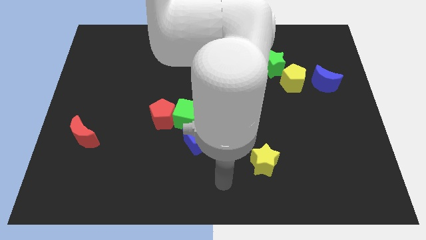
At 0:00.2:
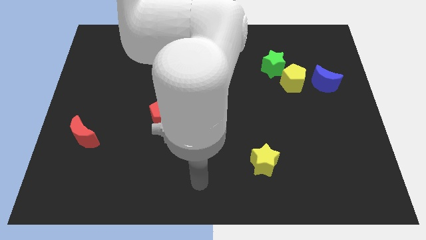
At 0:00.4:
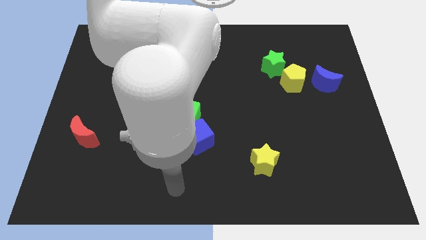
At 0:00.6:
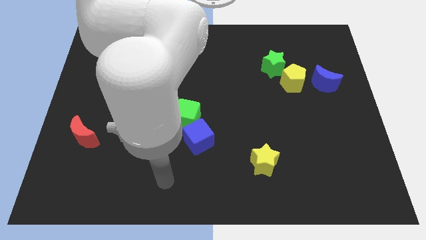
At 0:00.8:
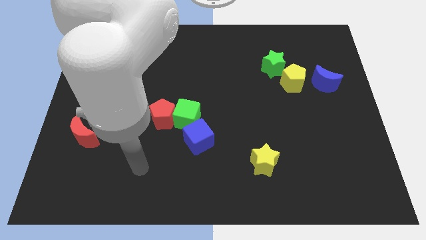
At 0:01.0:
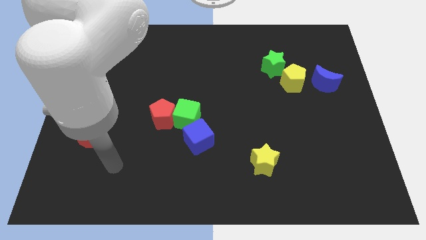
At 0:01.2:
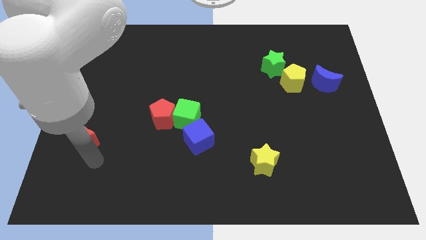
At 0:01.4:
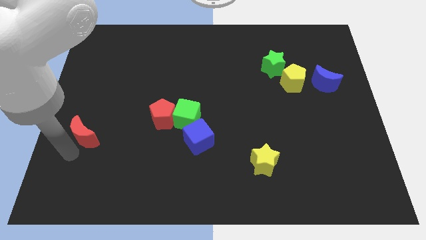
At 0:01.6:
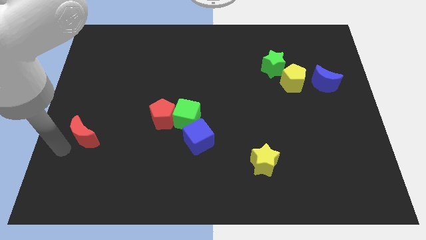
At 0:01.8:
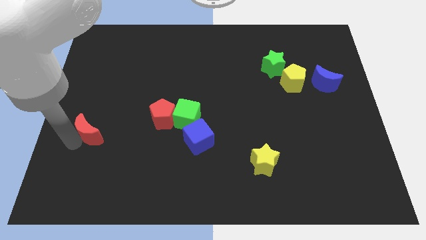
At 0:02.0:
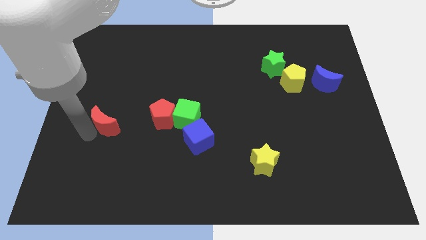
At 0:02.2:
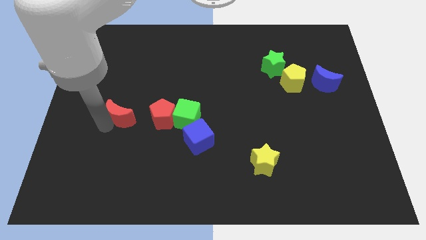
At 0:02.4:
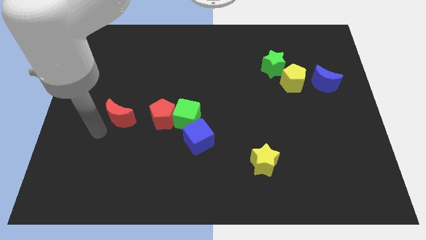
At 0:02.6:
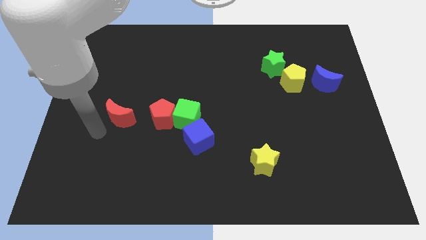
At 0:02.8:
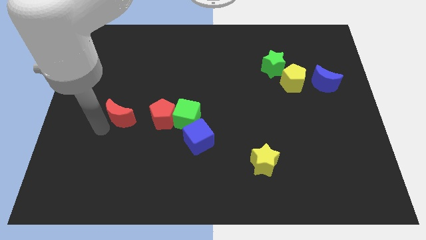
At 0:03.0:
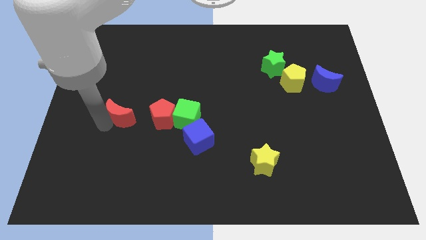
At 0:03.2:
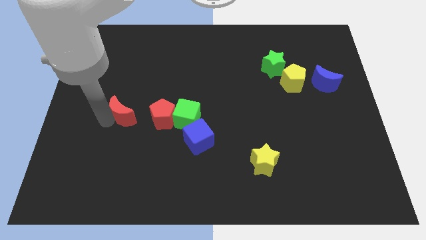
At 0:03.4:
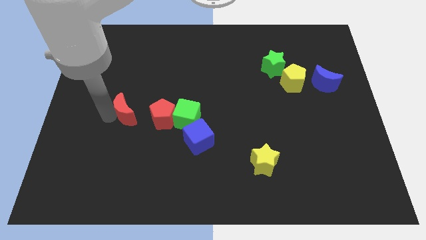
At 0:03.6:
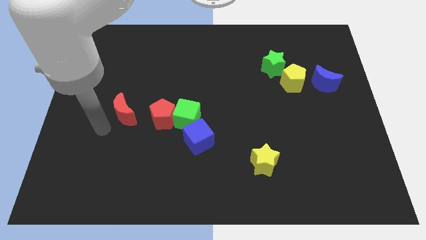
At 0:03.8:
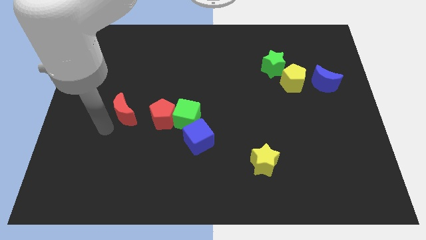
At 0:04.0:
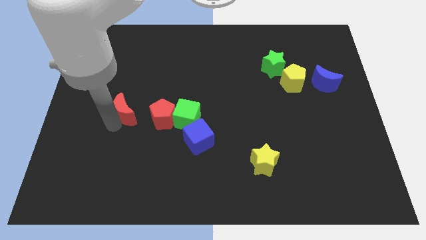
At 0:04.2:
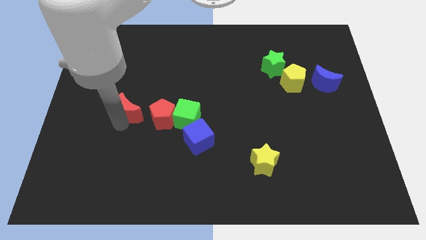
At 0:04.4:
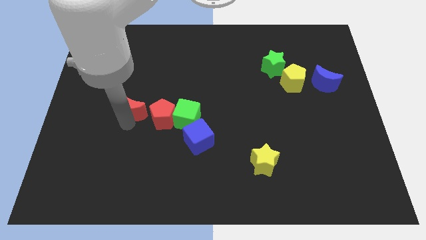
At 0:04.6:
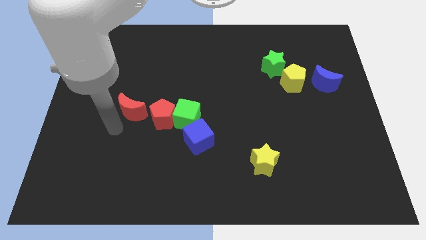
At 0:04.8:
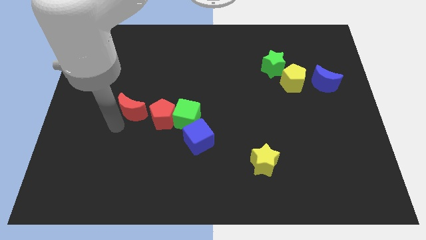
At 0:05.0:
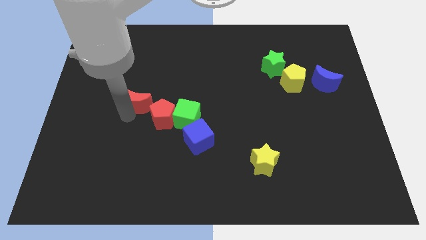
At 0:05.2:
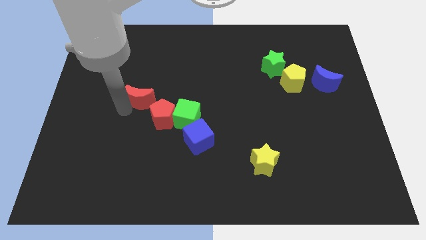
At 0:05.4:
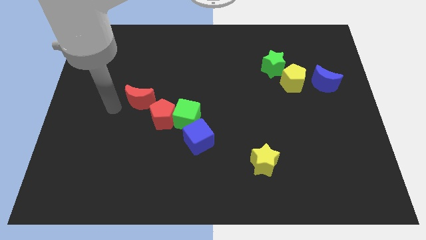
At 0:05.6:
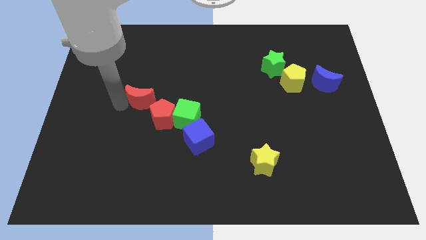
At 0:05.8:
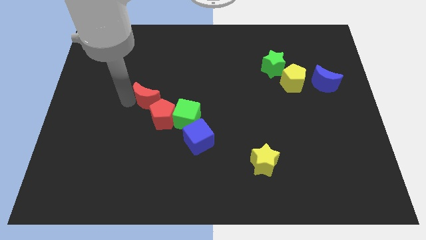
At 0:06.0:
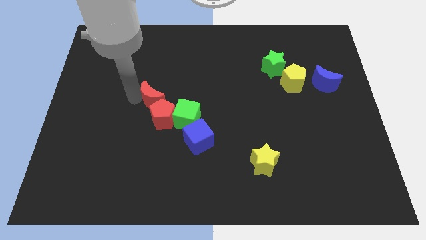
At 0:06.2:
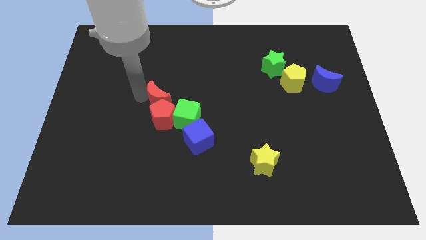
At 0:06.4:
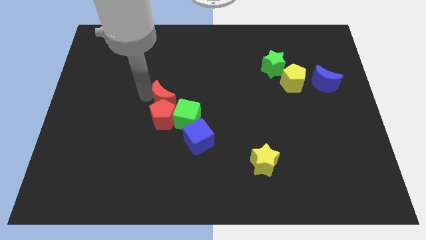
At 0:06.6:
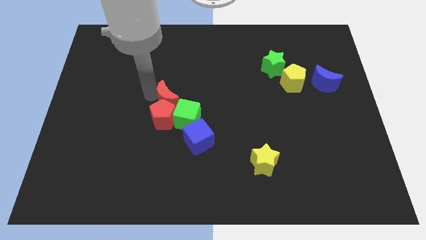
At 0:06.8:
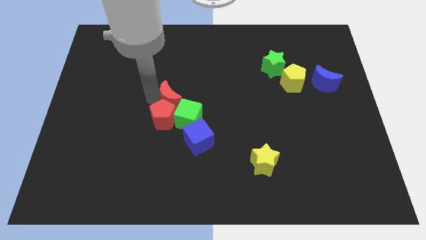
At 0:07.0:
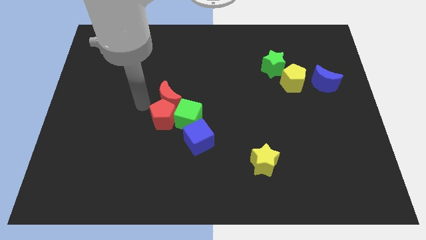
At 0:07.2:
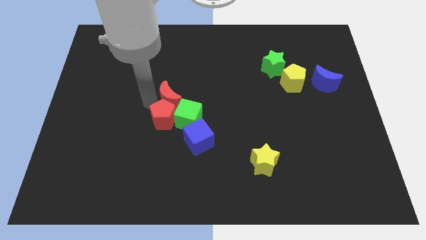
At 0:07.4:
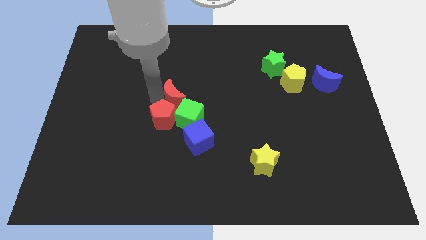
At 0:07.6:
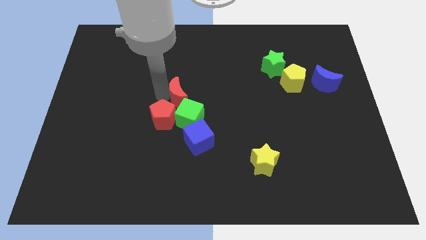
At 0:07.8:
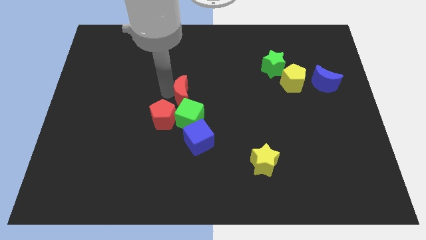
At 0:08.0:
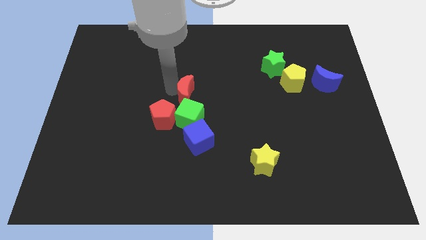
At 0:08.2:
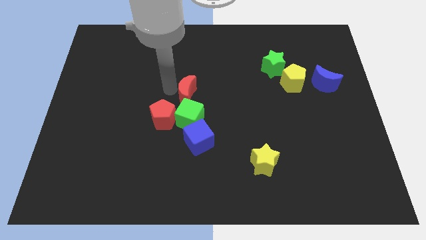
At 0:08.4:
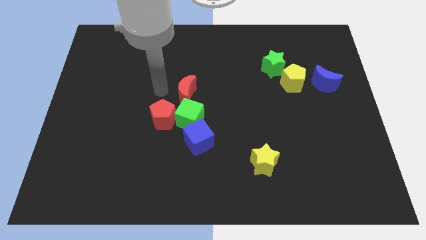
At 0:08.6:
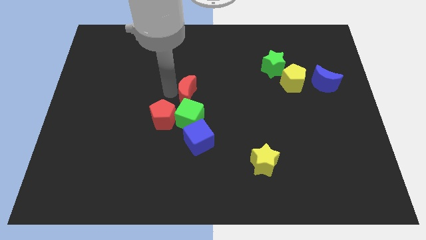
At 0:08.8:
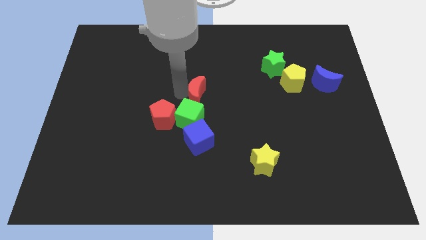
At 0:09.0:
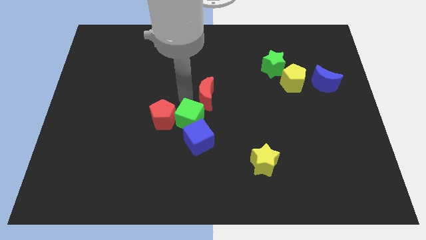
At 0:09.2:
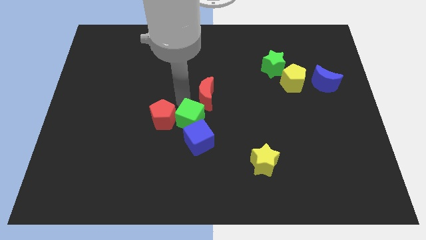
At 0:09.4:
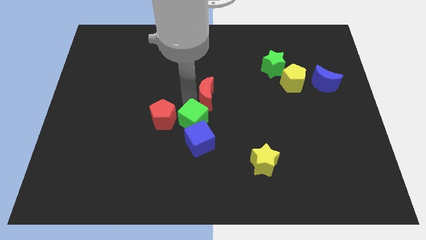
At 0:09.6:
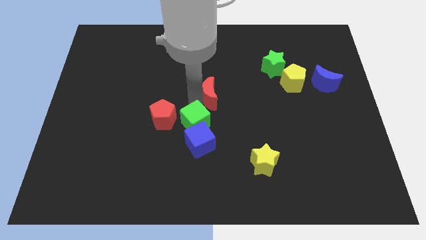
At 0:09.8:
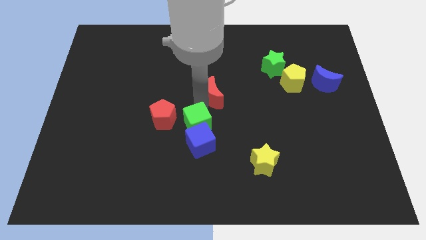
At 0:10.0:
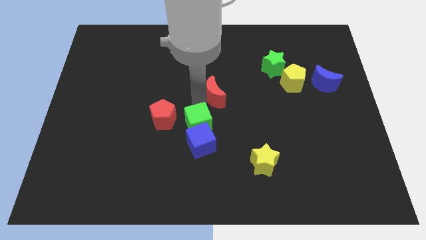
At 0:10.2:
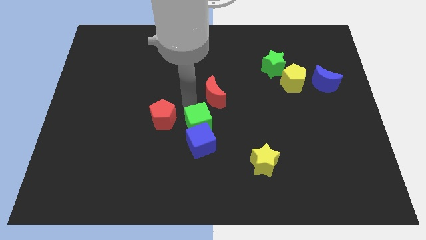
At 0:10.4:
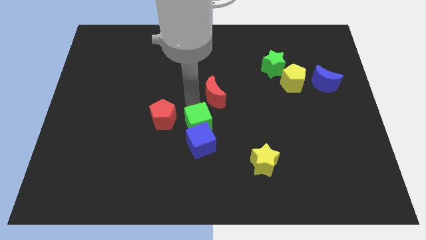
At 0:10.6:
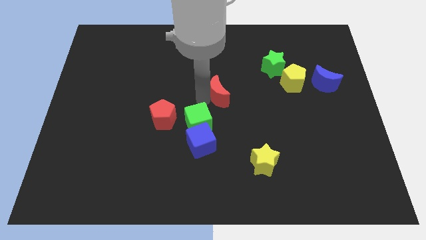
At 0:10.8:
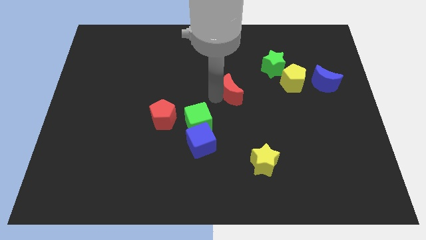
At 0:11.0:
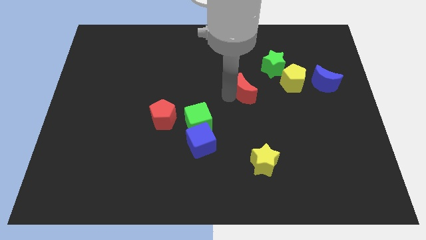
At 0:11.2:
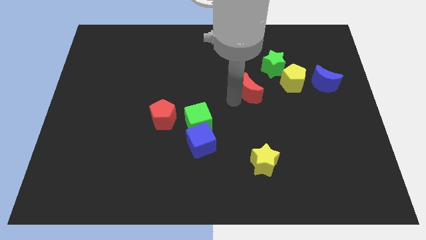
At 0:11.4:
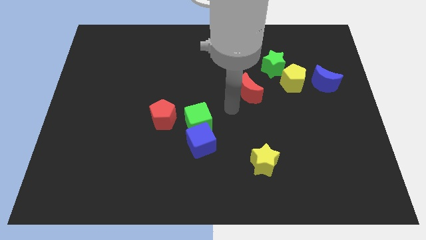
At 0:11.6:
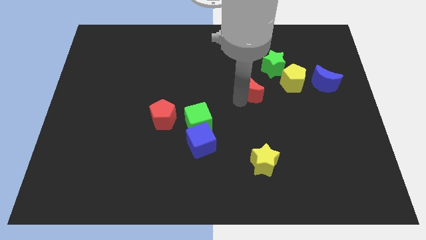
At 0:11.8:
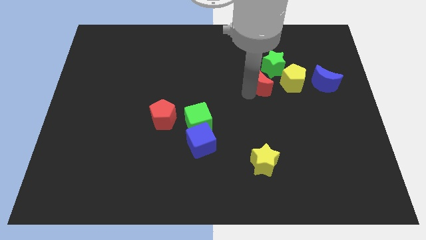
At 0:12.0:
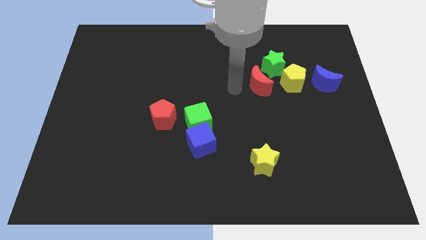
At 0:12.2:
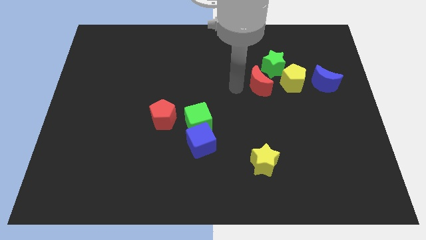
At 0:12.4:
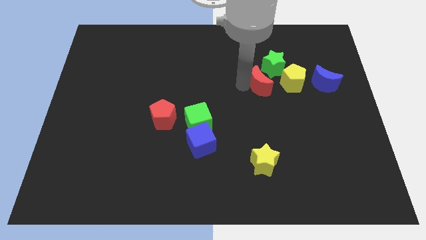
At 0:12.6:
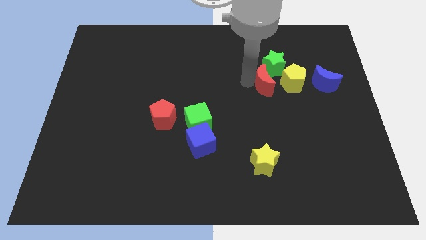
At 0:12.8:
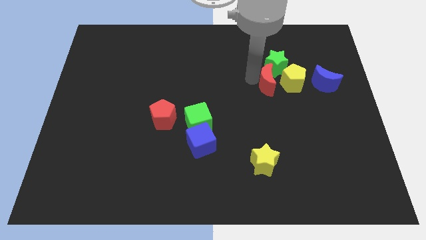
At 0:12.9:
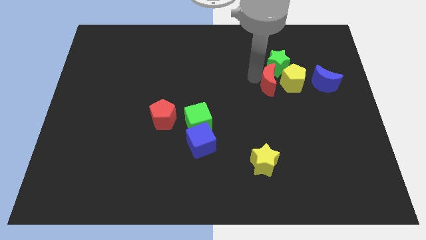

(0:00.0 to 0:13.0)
put the red moon next to the yellow pentagon

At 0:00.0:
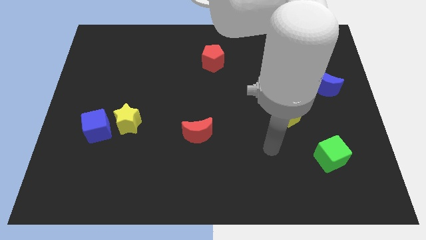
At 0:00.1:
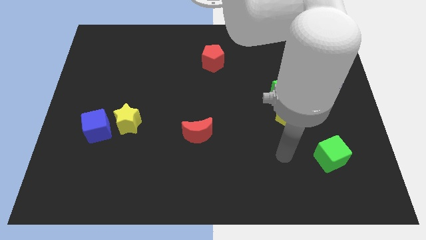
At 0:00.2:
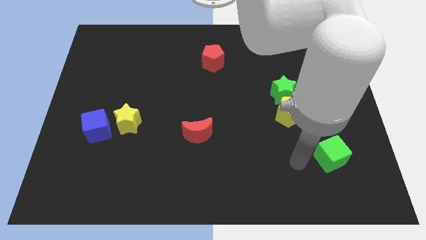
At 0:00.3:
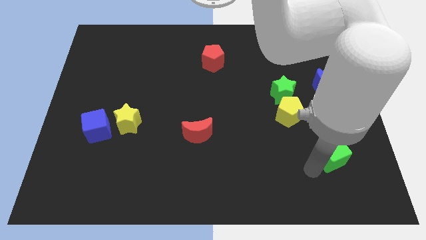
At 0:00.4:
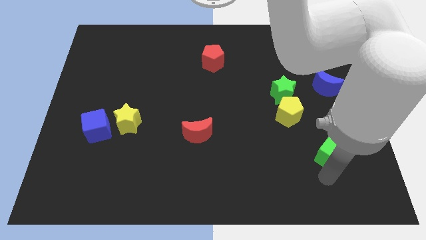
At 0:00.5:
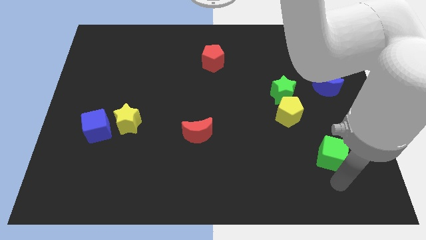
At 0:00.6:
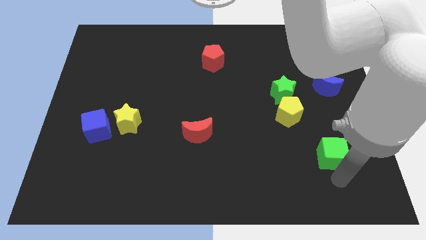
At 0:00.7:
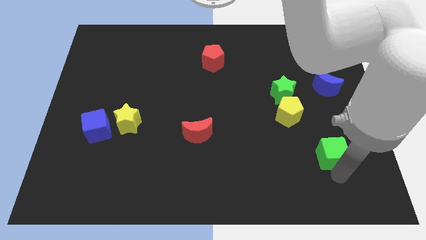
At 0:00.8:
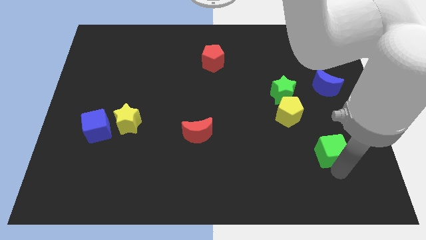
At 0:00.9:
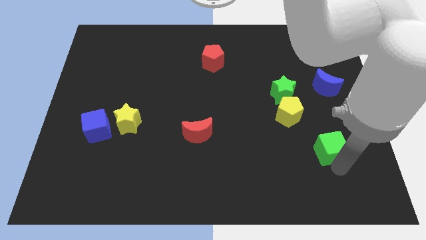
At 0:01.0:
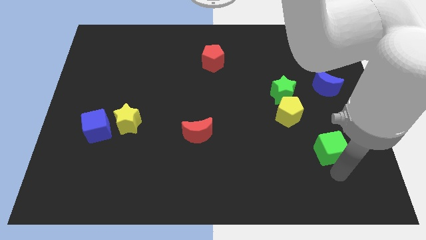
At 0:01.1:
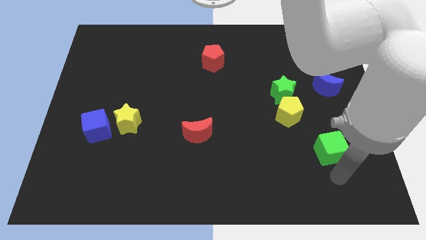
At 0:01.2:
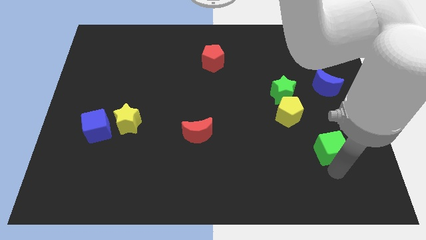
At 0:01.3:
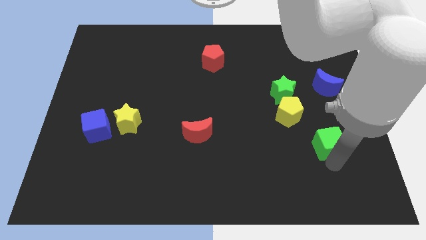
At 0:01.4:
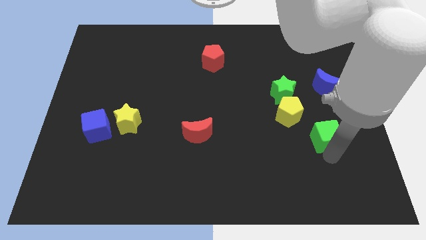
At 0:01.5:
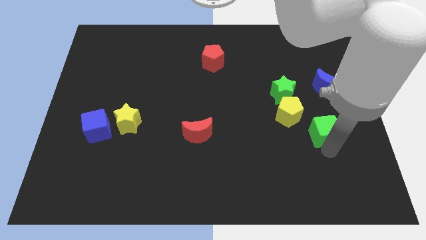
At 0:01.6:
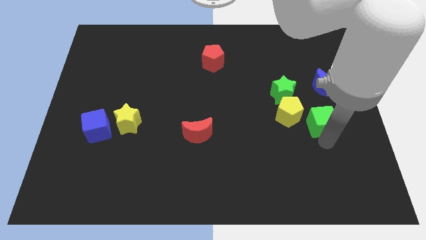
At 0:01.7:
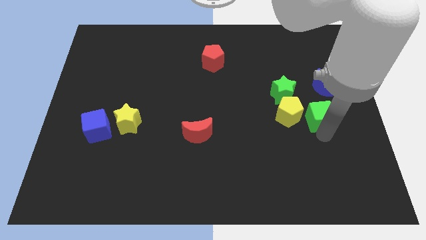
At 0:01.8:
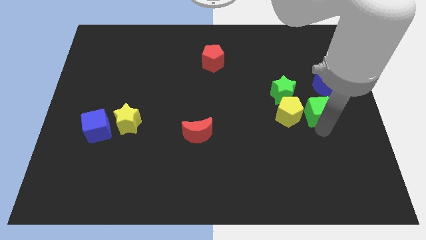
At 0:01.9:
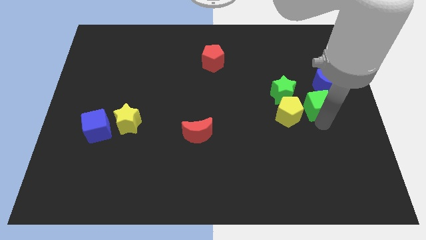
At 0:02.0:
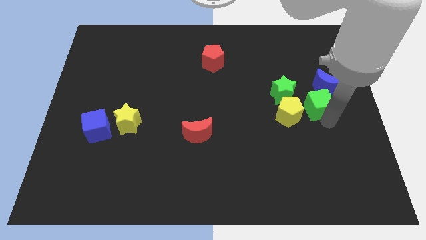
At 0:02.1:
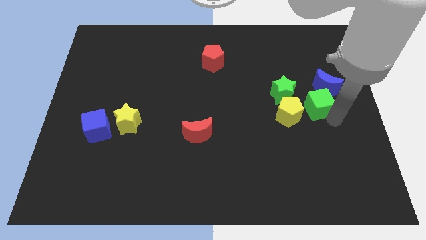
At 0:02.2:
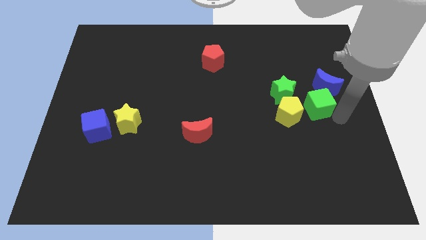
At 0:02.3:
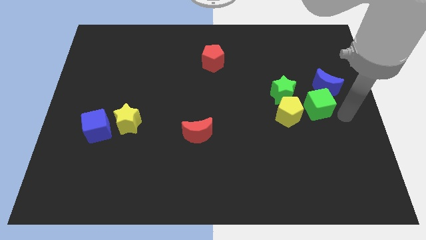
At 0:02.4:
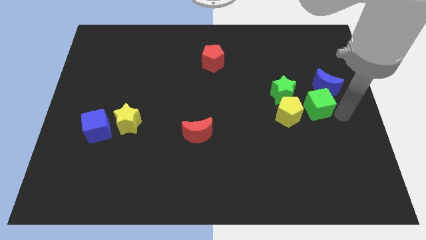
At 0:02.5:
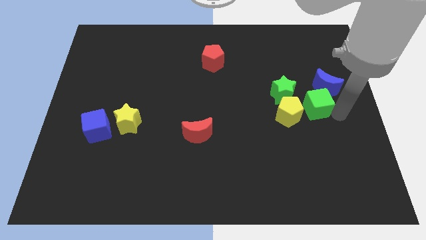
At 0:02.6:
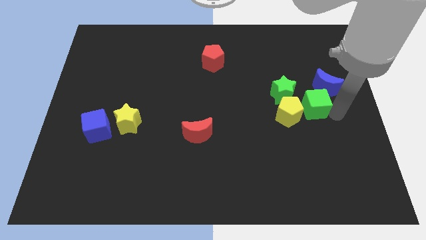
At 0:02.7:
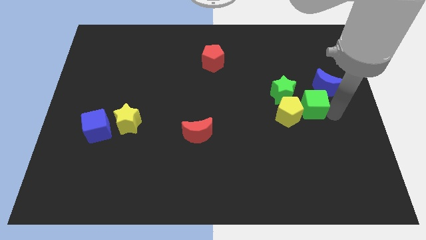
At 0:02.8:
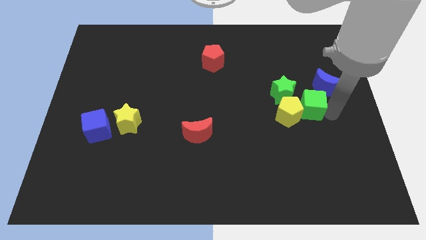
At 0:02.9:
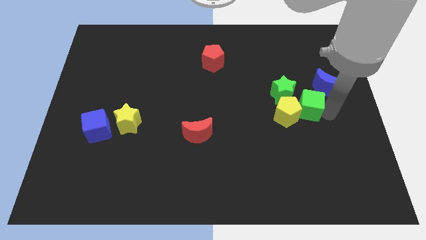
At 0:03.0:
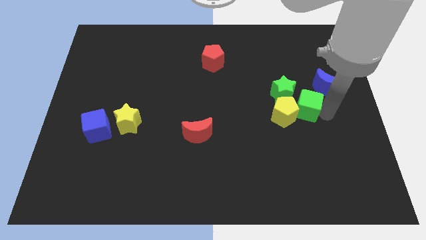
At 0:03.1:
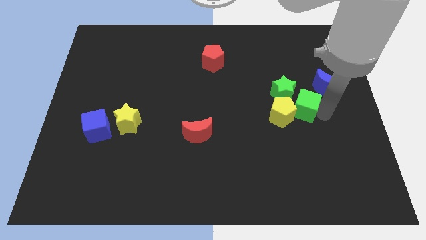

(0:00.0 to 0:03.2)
move the green cube towards the green star
